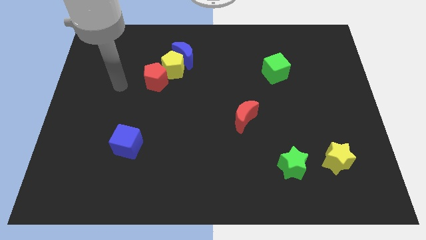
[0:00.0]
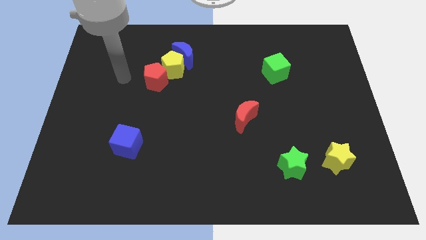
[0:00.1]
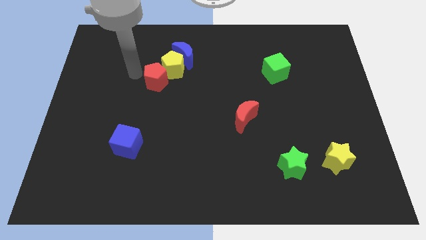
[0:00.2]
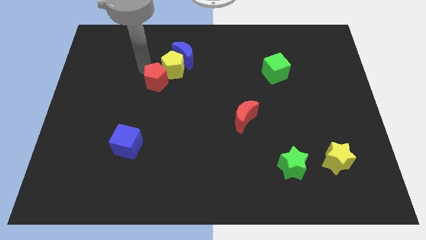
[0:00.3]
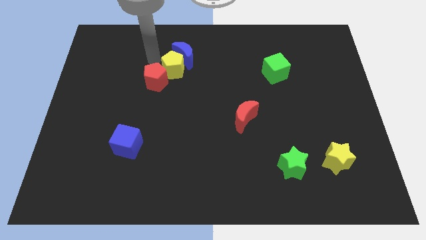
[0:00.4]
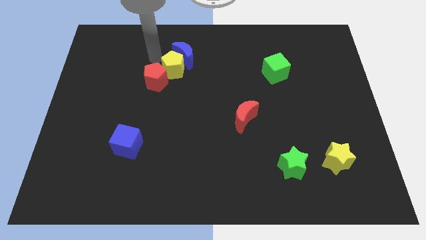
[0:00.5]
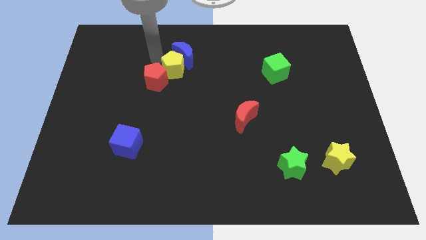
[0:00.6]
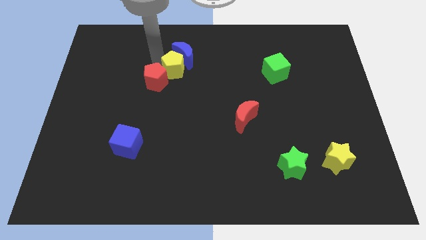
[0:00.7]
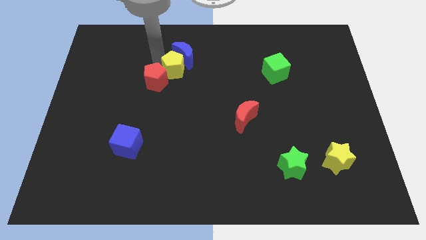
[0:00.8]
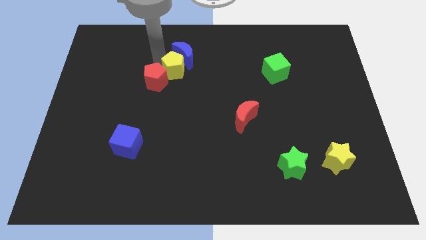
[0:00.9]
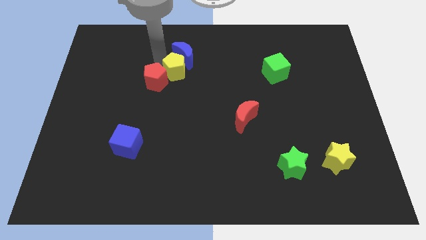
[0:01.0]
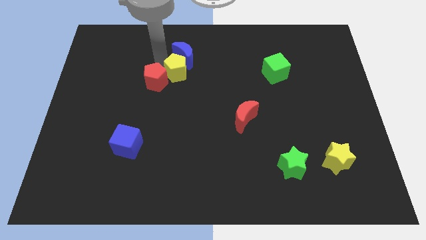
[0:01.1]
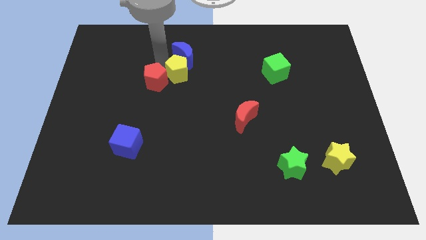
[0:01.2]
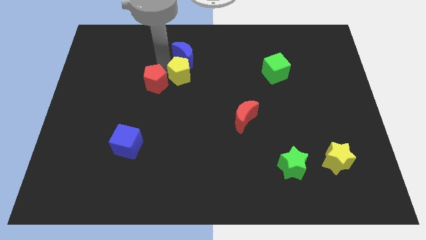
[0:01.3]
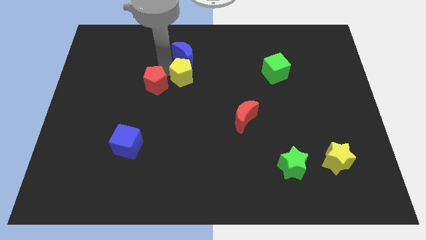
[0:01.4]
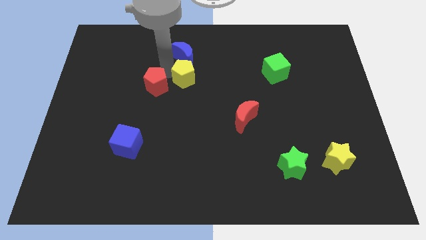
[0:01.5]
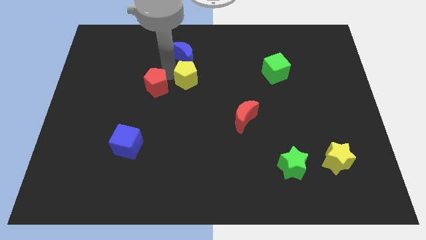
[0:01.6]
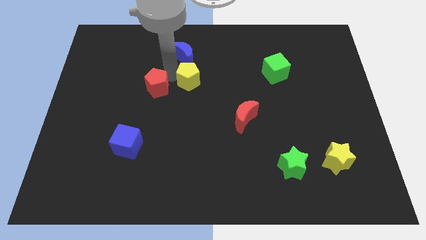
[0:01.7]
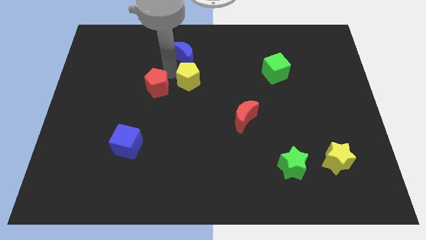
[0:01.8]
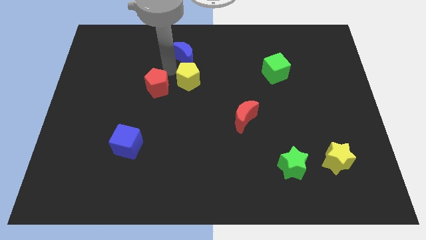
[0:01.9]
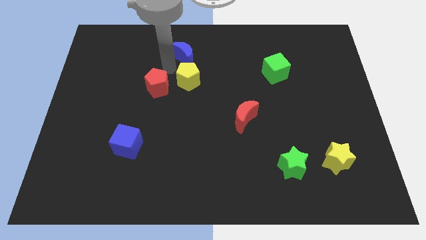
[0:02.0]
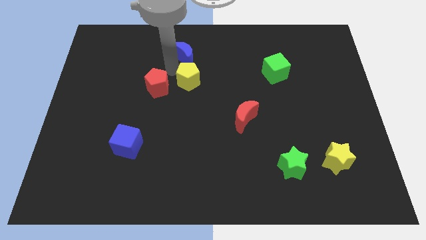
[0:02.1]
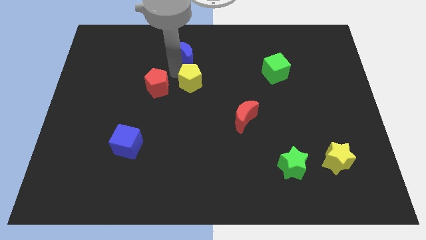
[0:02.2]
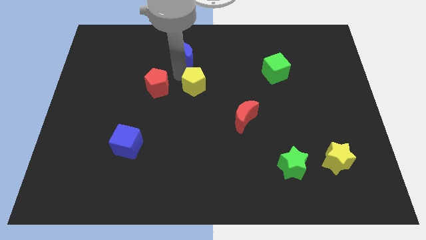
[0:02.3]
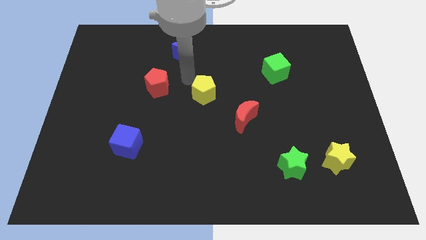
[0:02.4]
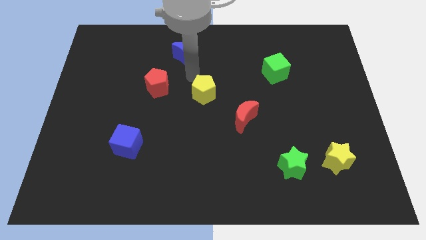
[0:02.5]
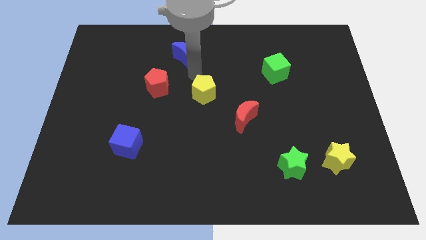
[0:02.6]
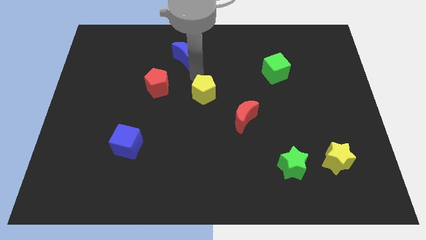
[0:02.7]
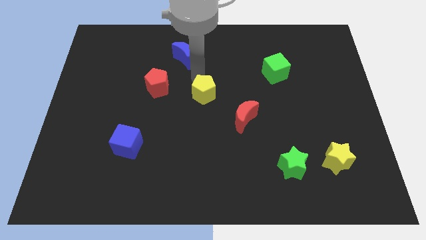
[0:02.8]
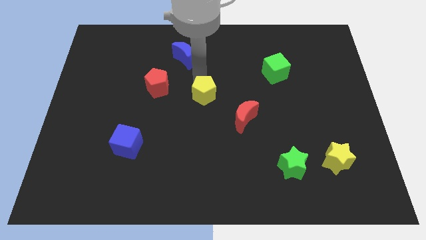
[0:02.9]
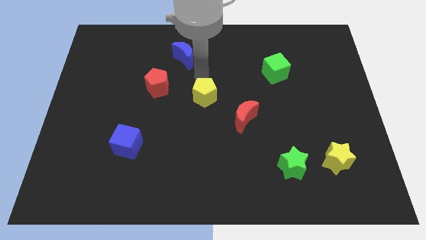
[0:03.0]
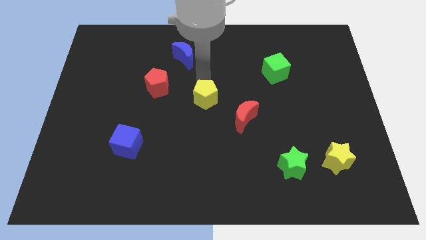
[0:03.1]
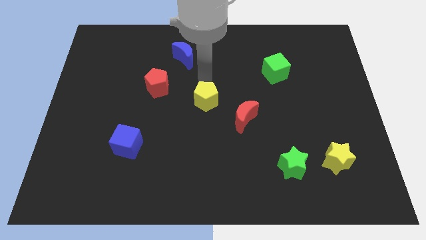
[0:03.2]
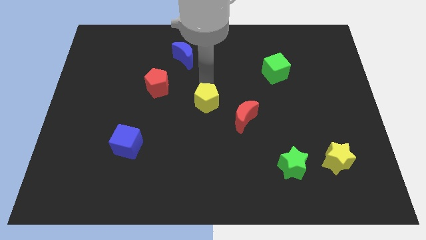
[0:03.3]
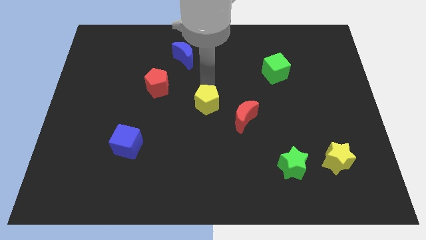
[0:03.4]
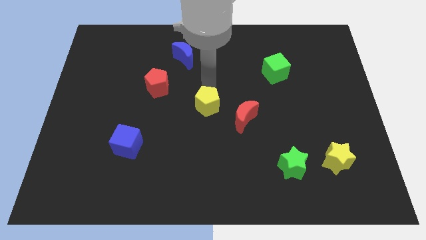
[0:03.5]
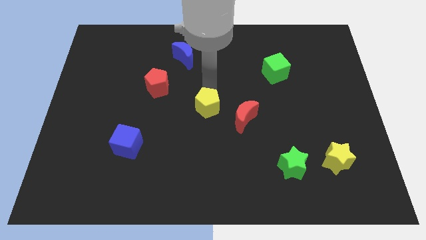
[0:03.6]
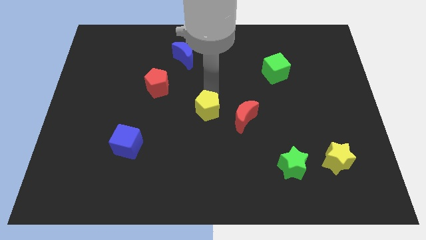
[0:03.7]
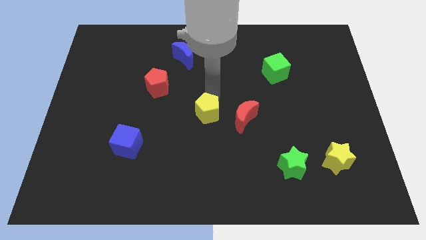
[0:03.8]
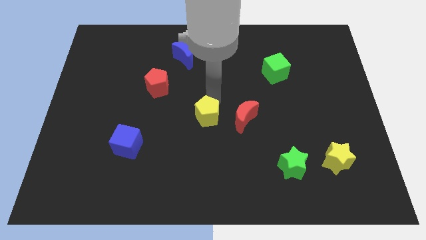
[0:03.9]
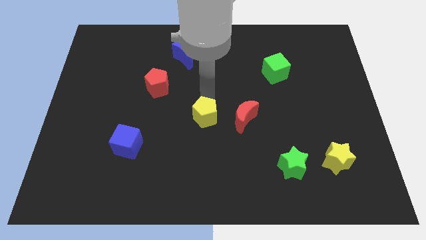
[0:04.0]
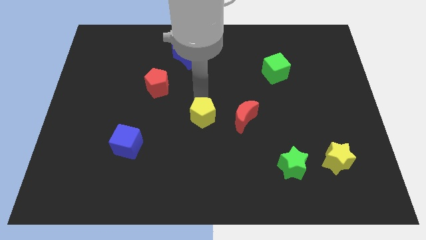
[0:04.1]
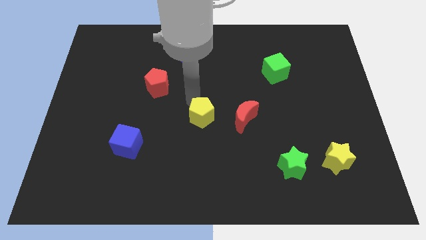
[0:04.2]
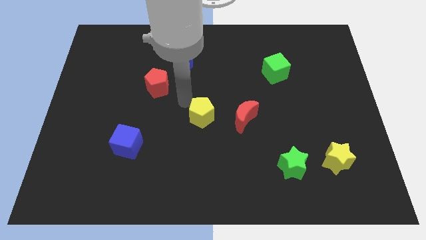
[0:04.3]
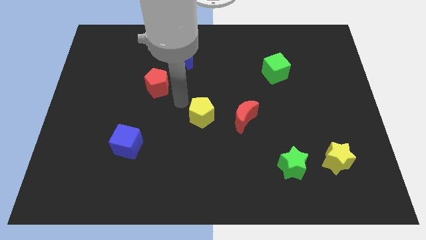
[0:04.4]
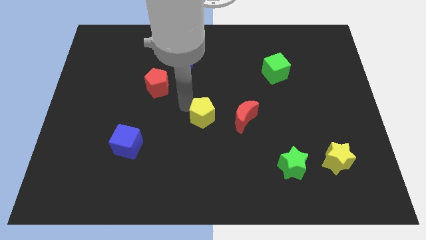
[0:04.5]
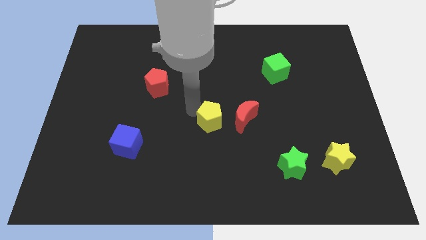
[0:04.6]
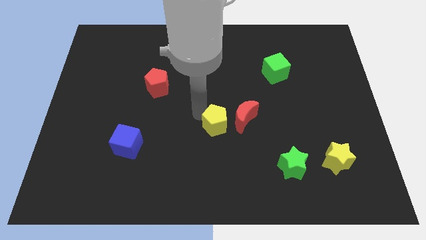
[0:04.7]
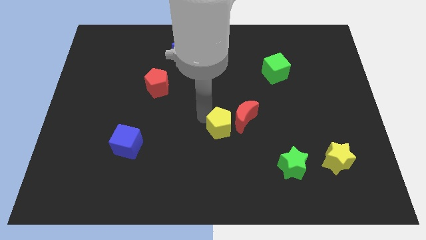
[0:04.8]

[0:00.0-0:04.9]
push the yellow pentagon downwards and to the right

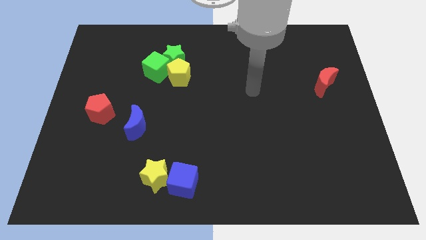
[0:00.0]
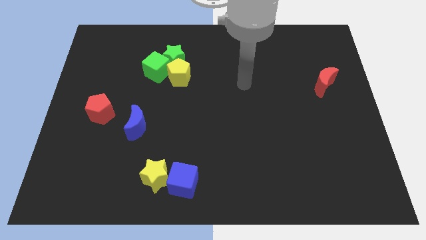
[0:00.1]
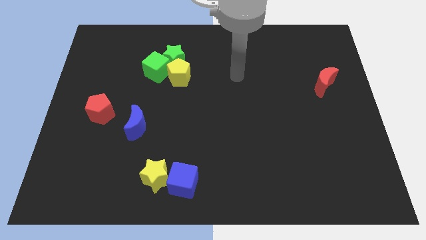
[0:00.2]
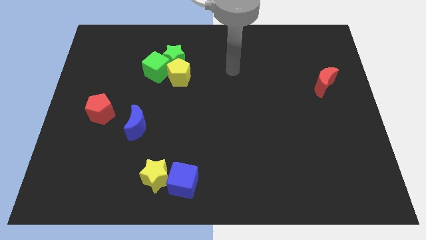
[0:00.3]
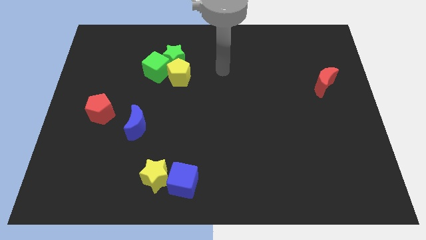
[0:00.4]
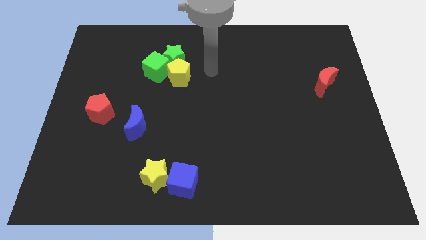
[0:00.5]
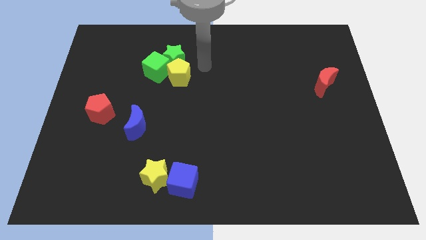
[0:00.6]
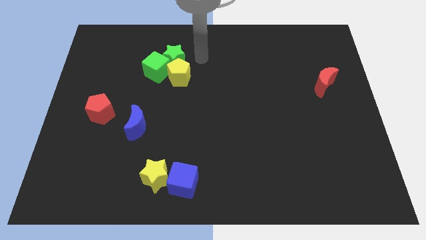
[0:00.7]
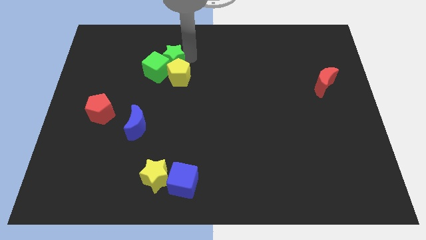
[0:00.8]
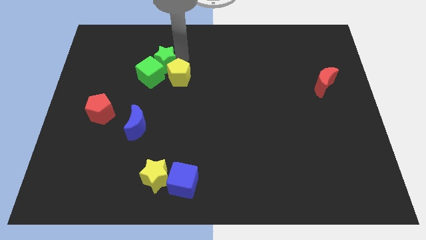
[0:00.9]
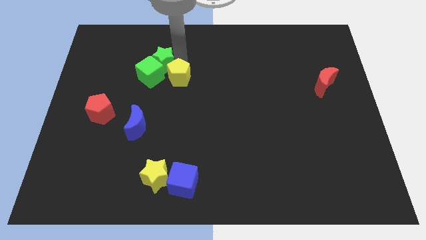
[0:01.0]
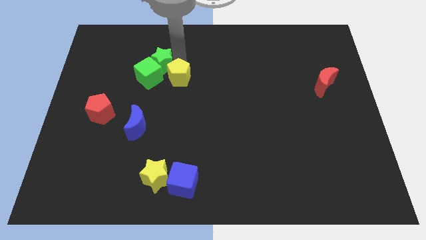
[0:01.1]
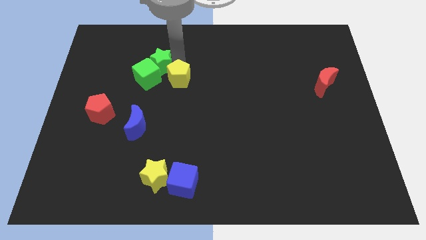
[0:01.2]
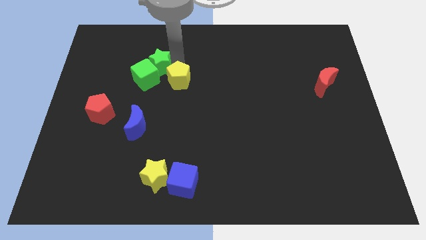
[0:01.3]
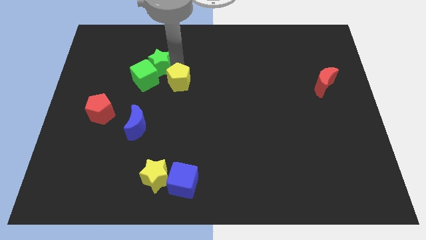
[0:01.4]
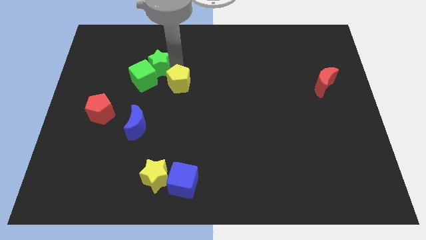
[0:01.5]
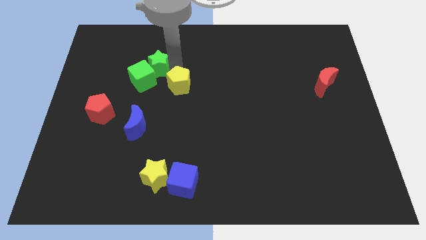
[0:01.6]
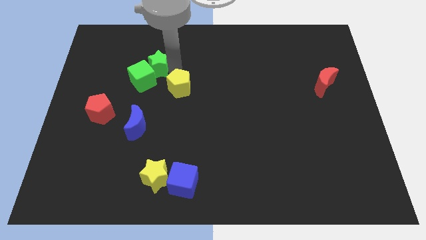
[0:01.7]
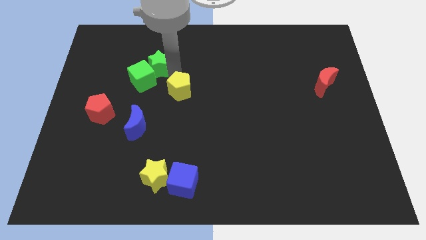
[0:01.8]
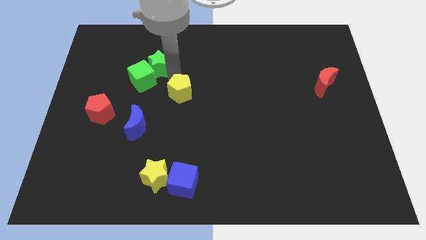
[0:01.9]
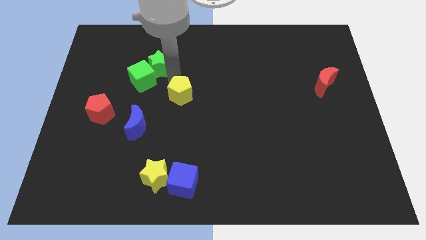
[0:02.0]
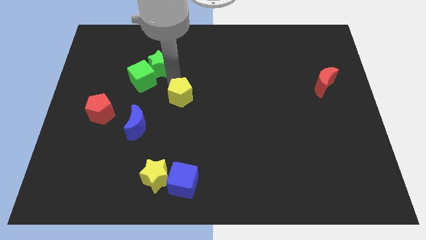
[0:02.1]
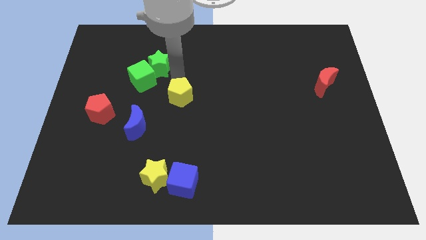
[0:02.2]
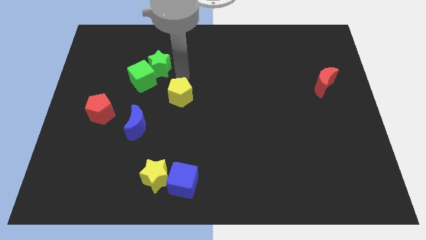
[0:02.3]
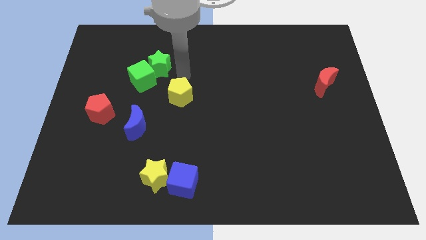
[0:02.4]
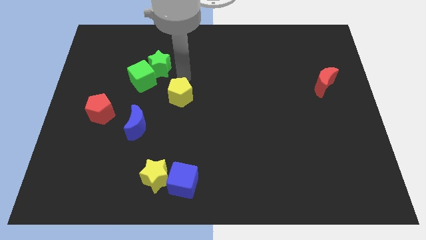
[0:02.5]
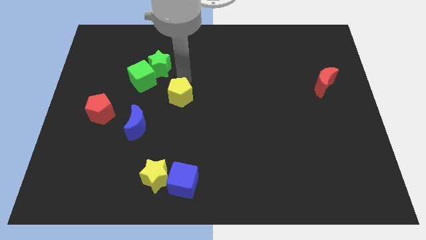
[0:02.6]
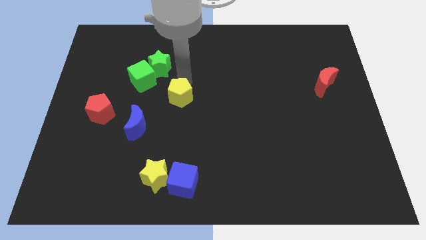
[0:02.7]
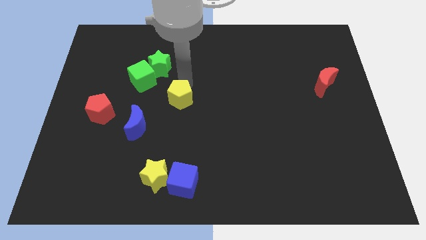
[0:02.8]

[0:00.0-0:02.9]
move the yellow pentagon down a little bit

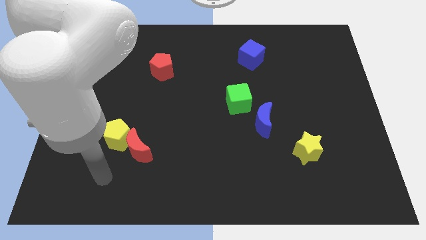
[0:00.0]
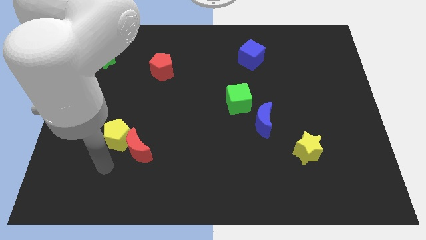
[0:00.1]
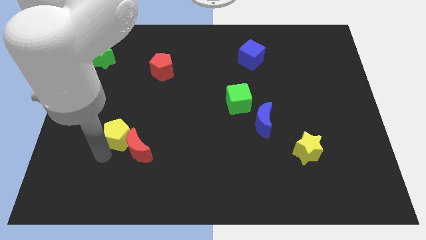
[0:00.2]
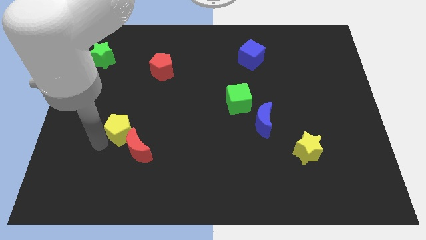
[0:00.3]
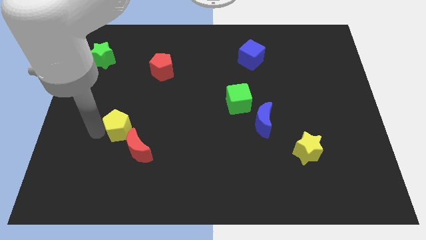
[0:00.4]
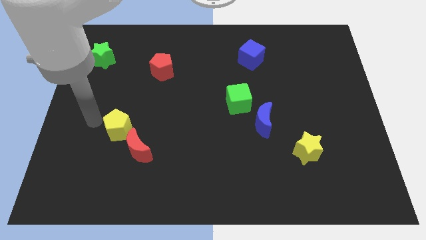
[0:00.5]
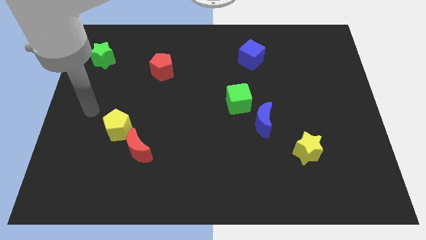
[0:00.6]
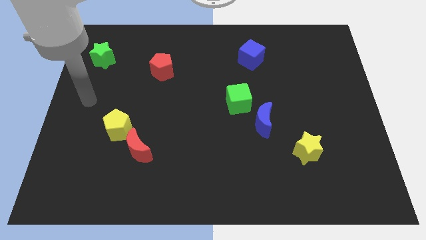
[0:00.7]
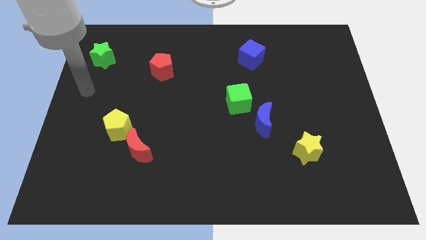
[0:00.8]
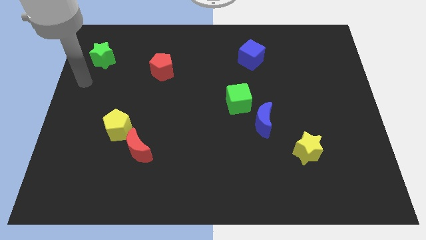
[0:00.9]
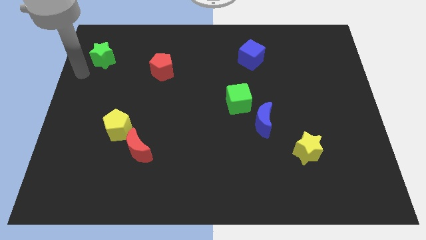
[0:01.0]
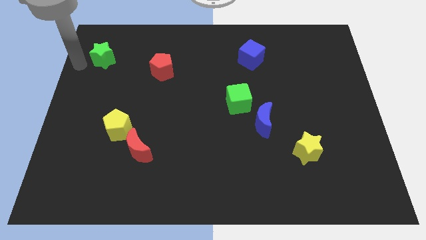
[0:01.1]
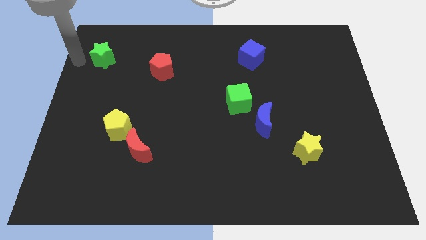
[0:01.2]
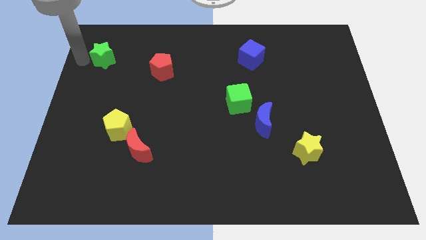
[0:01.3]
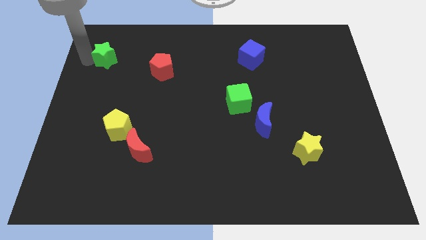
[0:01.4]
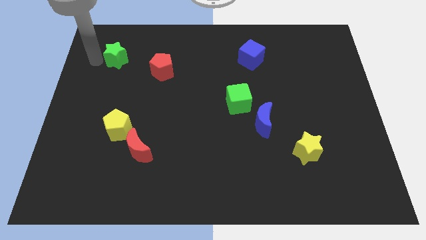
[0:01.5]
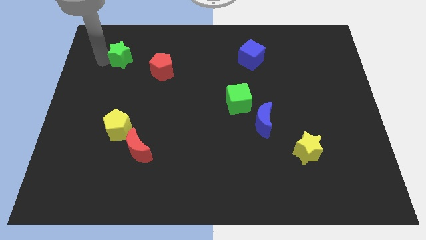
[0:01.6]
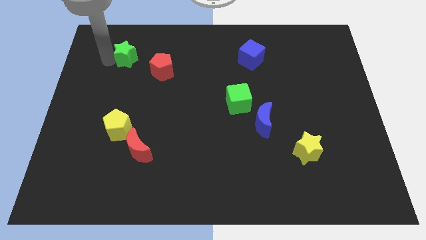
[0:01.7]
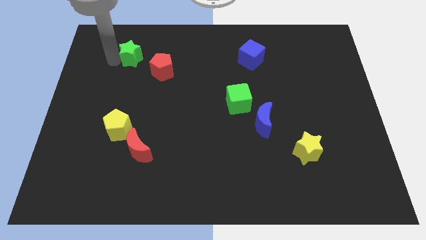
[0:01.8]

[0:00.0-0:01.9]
push the green star a little bit right
